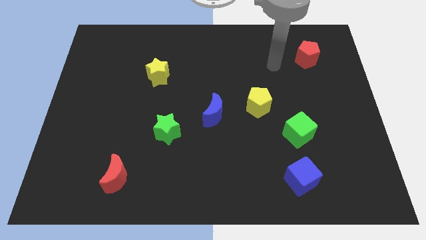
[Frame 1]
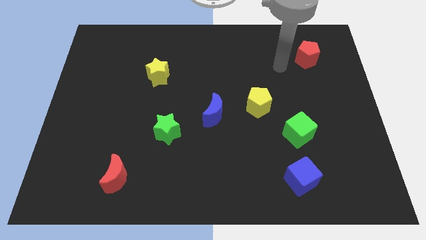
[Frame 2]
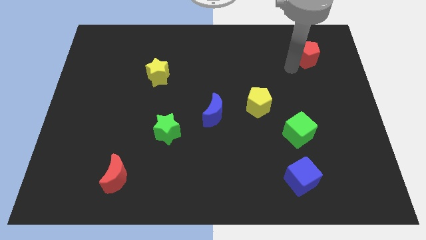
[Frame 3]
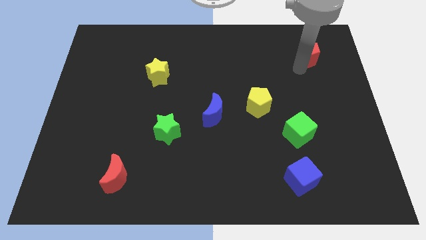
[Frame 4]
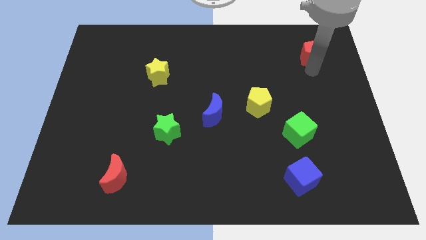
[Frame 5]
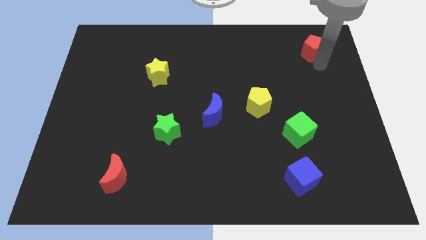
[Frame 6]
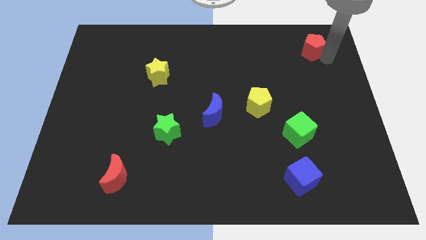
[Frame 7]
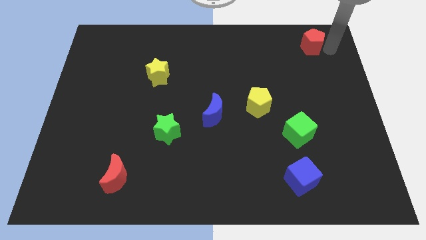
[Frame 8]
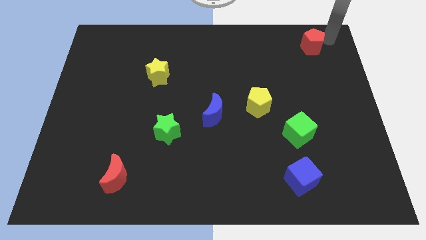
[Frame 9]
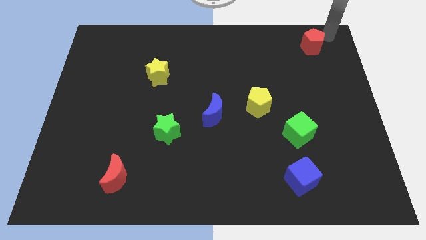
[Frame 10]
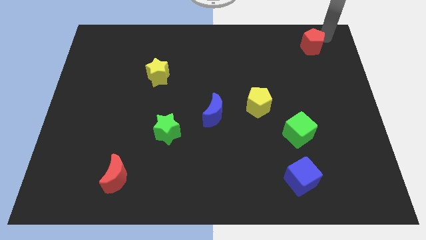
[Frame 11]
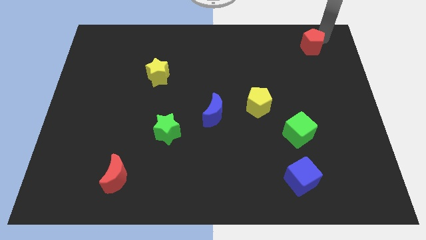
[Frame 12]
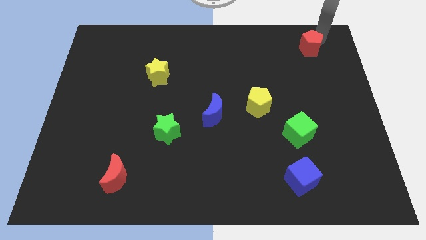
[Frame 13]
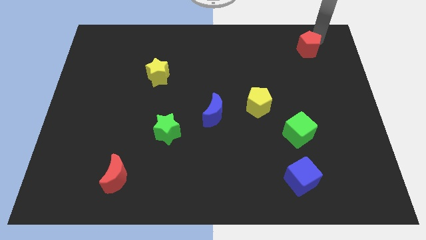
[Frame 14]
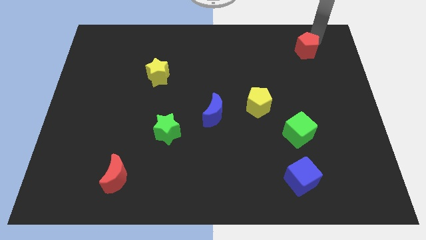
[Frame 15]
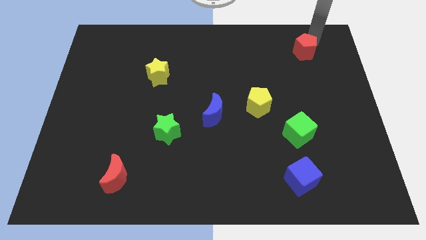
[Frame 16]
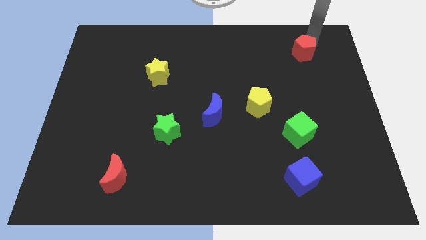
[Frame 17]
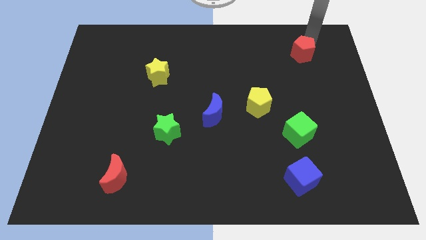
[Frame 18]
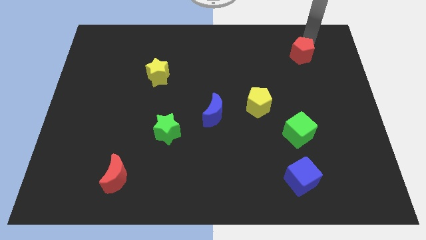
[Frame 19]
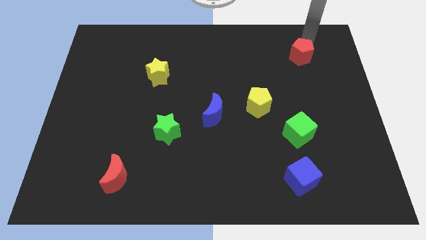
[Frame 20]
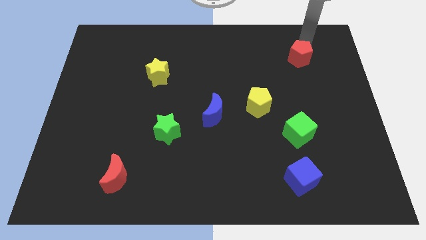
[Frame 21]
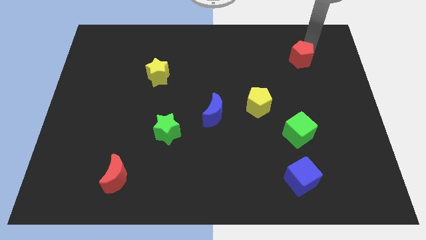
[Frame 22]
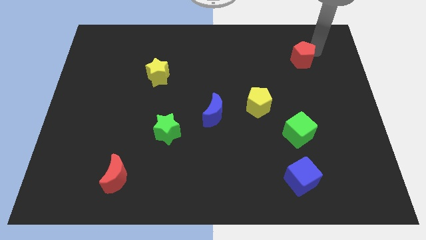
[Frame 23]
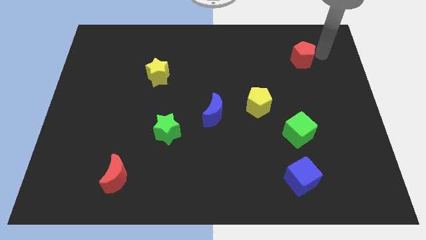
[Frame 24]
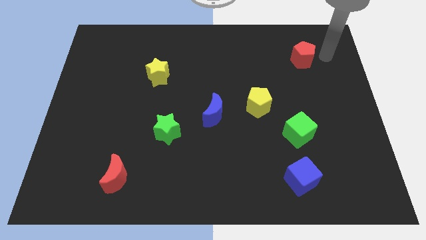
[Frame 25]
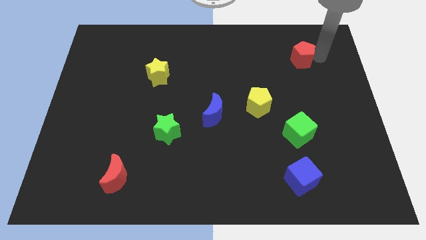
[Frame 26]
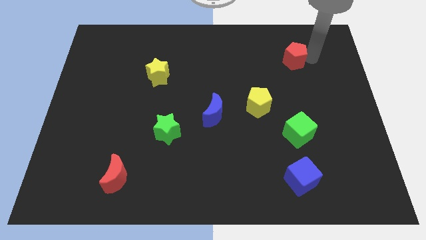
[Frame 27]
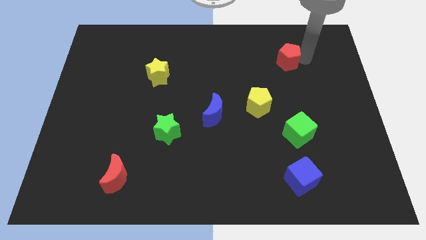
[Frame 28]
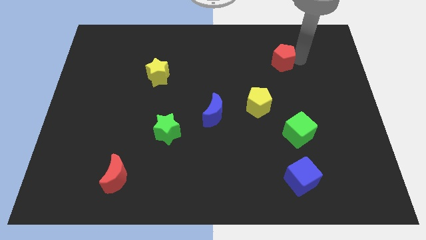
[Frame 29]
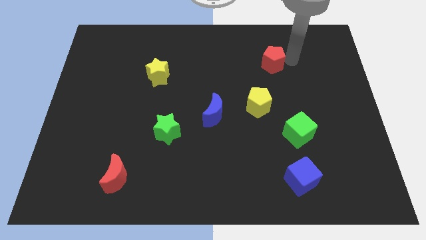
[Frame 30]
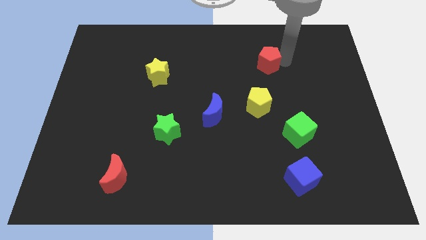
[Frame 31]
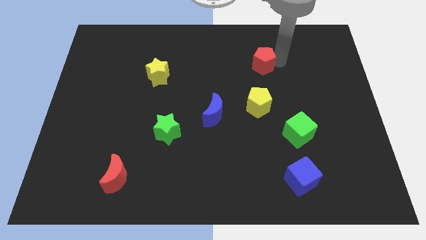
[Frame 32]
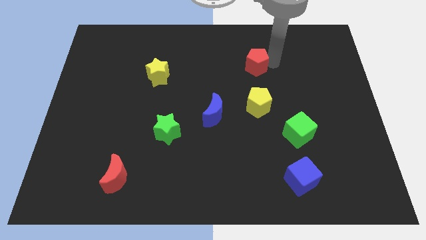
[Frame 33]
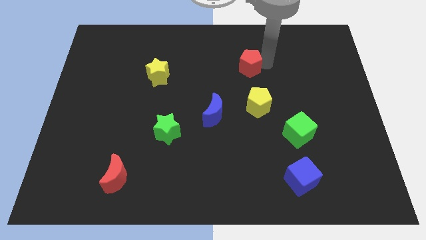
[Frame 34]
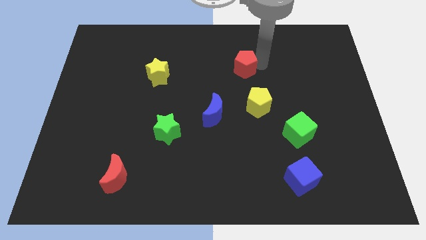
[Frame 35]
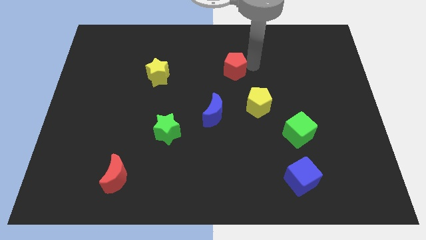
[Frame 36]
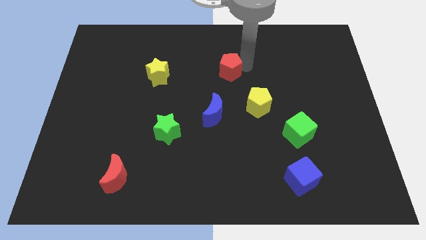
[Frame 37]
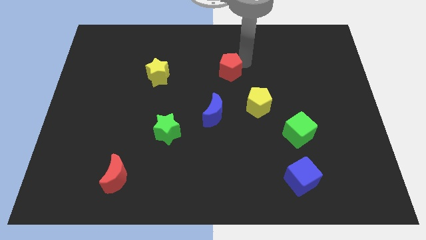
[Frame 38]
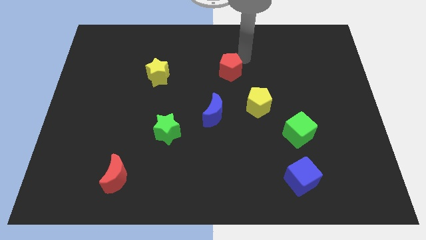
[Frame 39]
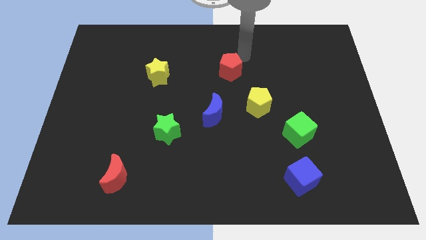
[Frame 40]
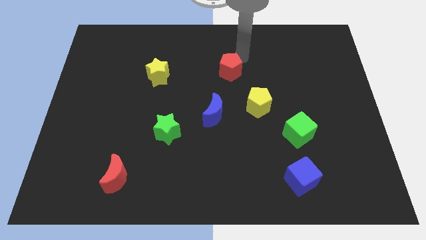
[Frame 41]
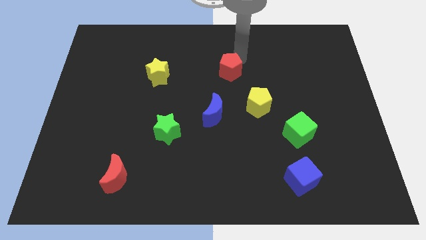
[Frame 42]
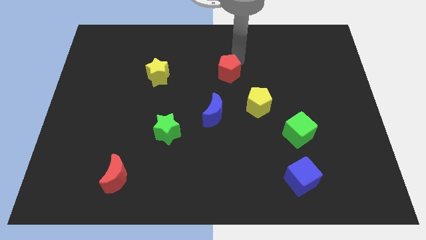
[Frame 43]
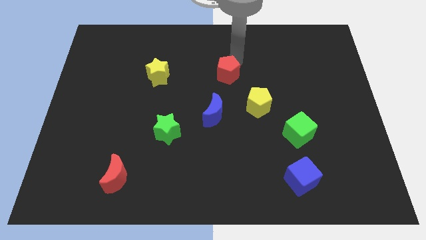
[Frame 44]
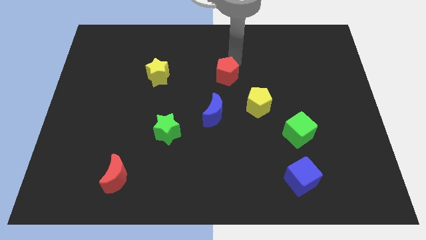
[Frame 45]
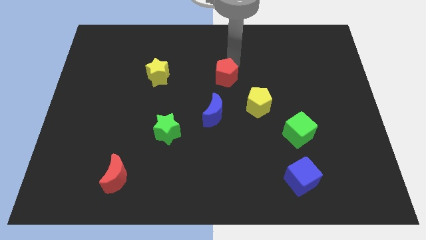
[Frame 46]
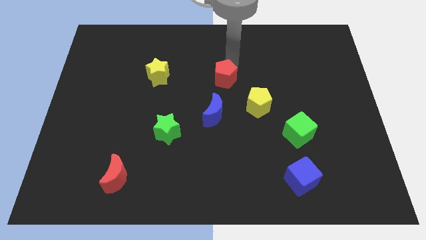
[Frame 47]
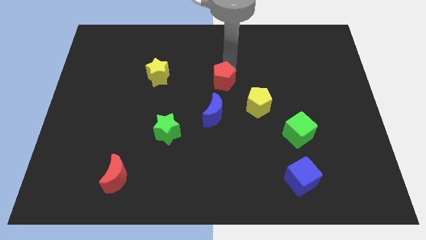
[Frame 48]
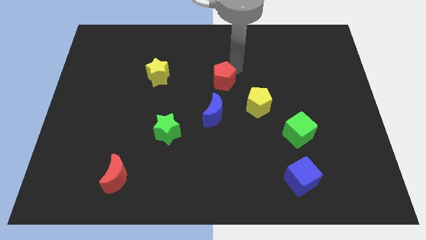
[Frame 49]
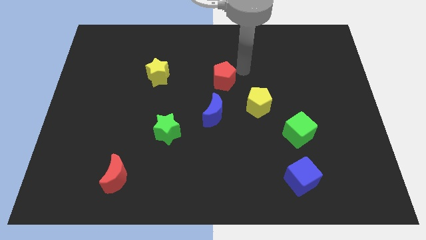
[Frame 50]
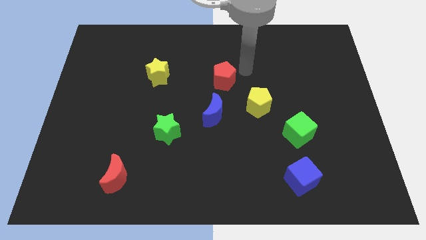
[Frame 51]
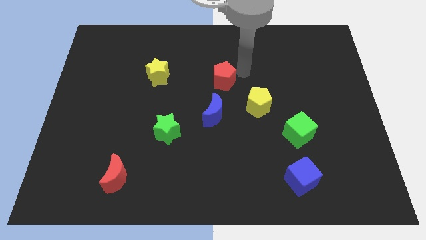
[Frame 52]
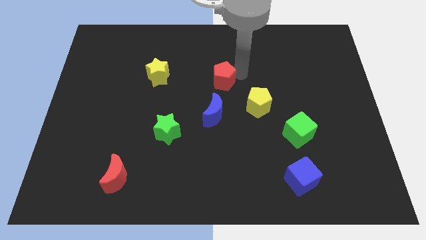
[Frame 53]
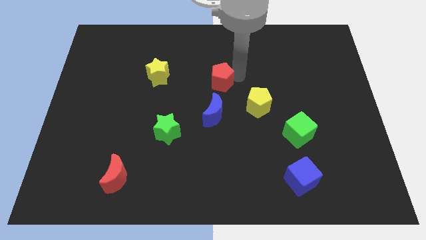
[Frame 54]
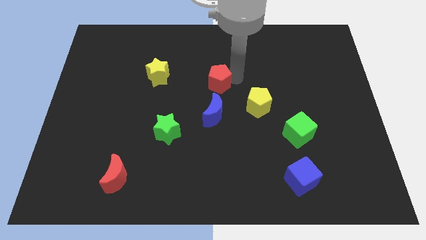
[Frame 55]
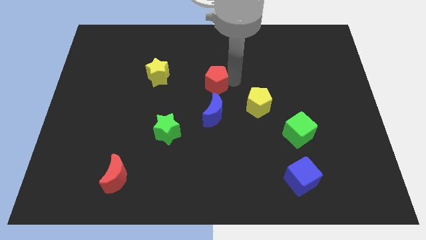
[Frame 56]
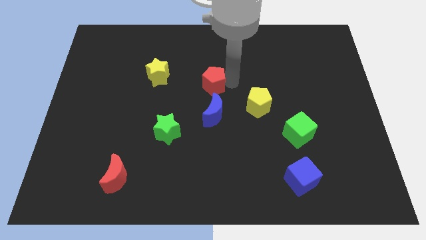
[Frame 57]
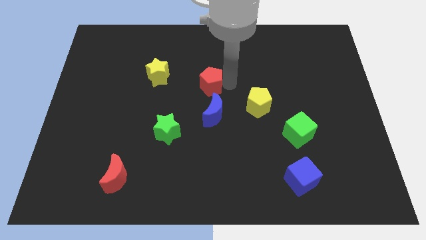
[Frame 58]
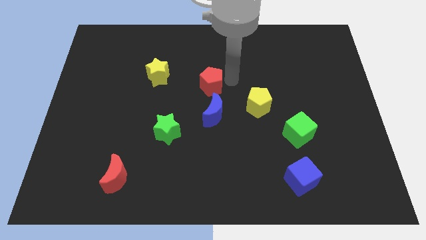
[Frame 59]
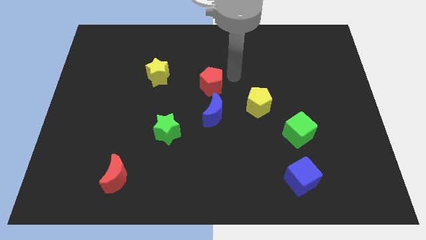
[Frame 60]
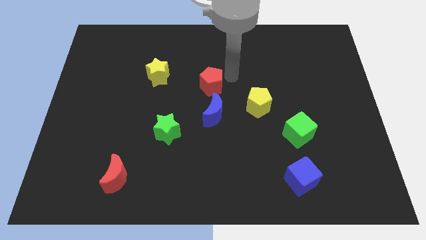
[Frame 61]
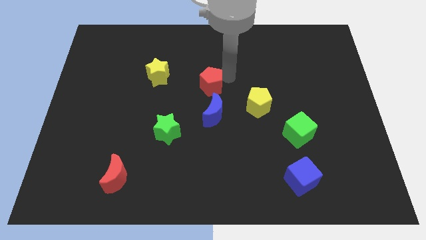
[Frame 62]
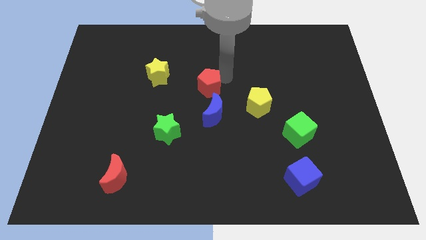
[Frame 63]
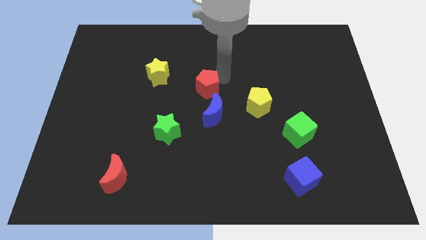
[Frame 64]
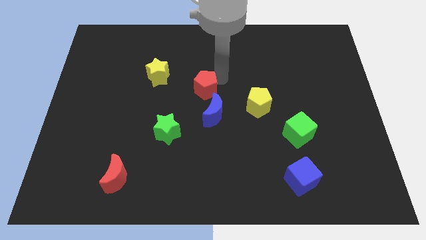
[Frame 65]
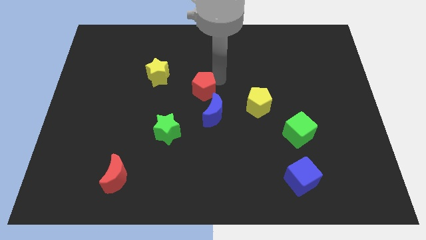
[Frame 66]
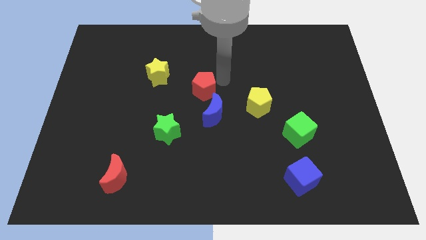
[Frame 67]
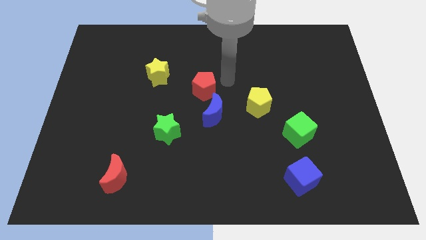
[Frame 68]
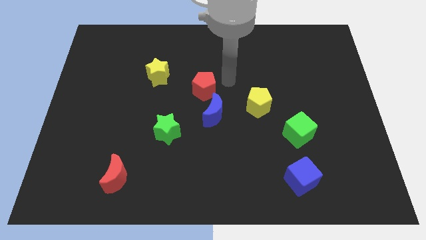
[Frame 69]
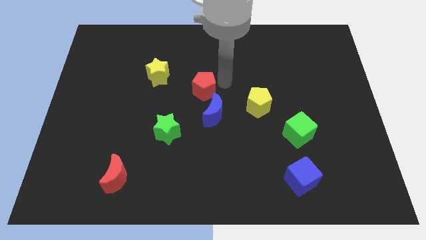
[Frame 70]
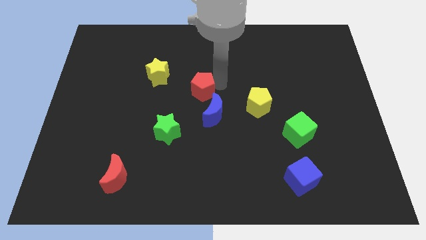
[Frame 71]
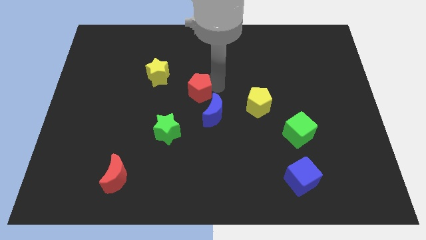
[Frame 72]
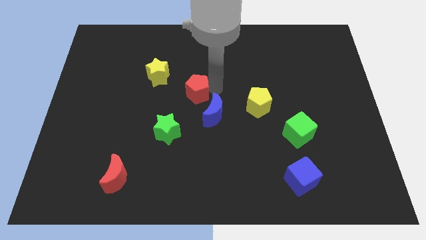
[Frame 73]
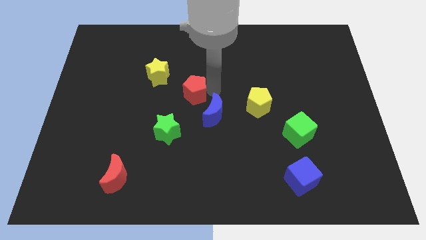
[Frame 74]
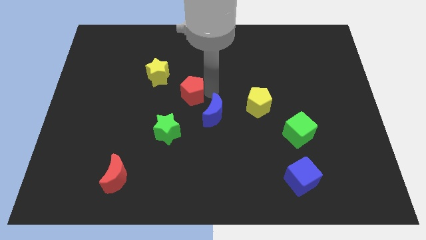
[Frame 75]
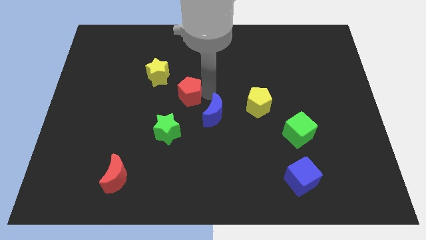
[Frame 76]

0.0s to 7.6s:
put the red pentagon to the top of the green star
